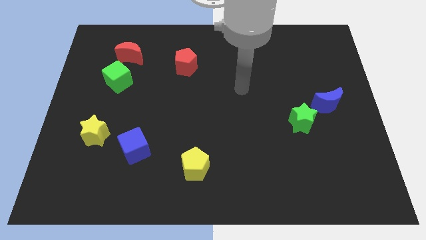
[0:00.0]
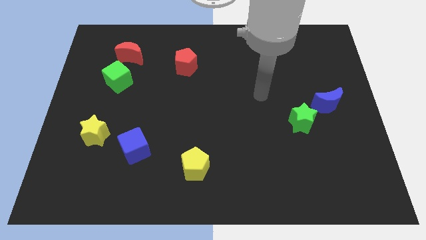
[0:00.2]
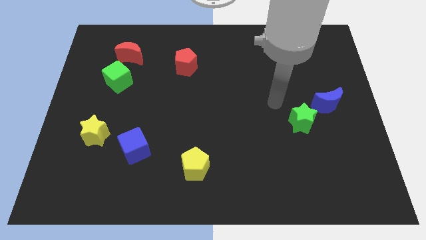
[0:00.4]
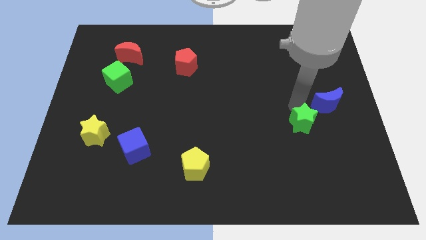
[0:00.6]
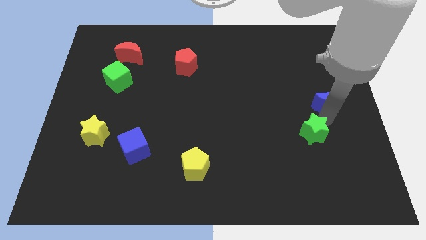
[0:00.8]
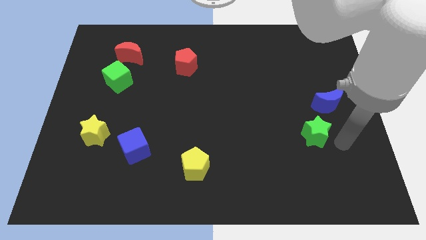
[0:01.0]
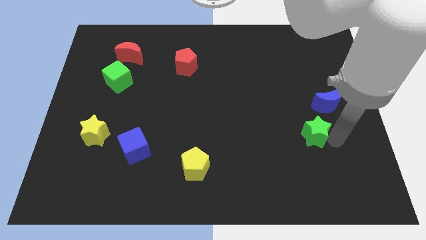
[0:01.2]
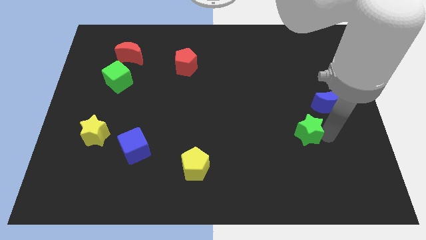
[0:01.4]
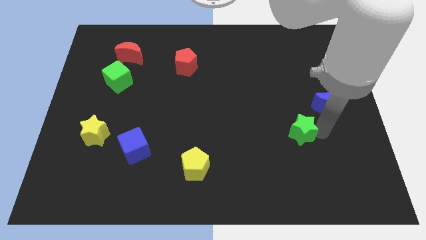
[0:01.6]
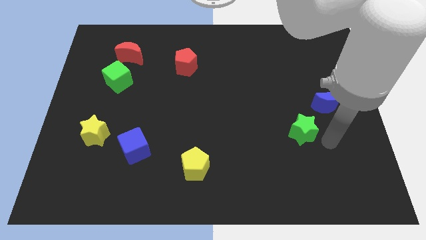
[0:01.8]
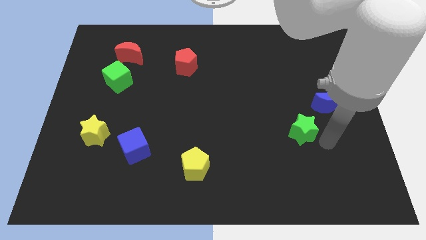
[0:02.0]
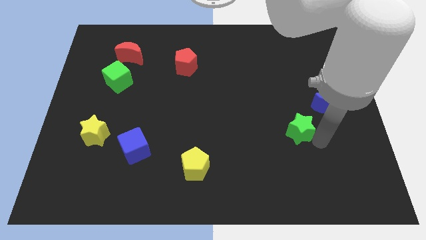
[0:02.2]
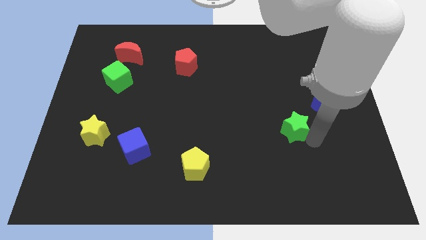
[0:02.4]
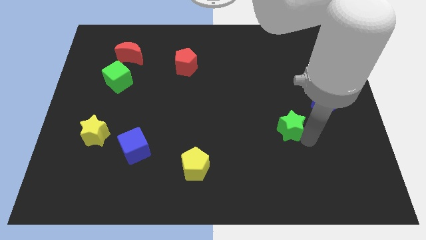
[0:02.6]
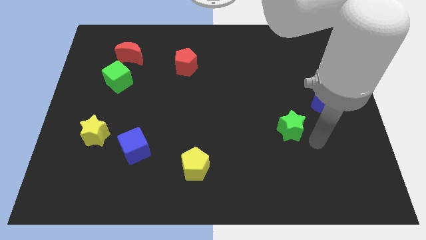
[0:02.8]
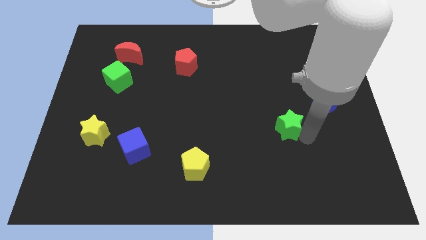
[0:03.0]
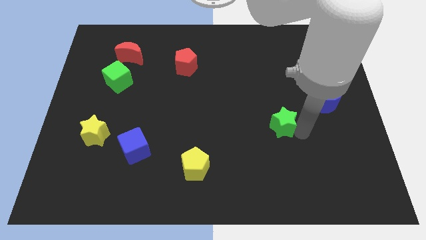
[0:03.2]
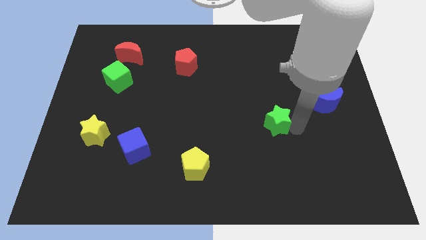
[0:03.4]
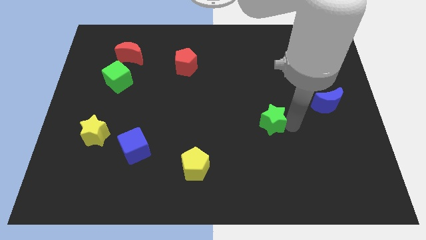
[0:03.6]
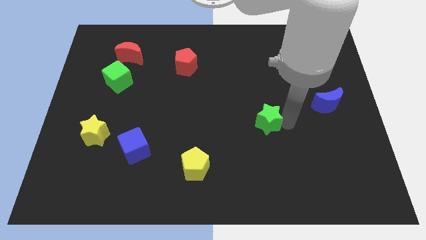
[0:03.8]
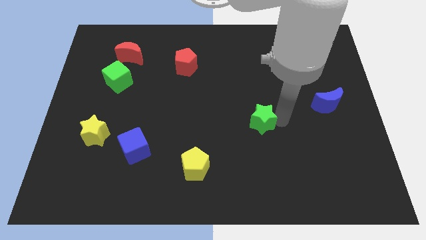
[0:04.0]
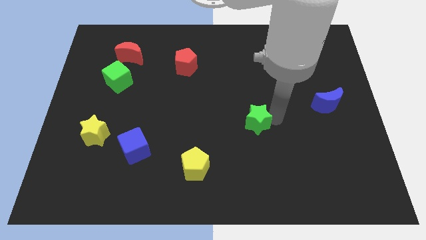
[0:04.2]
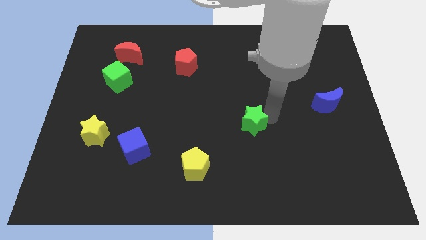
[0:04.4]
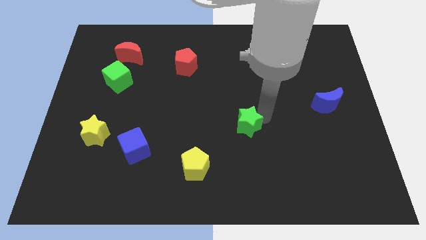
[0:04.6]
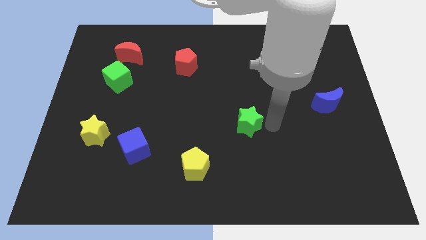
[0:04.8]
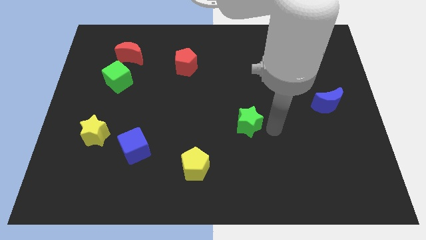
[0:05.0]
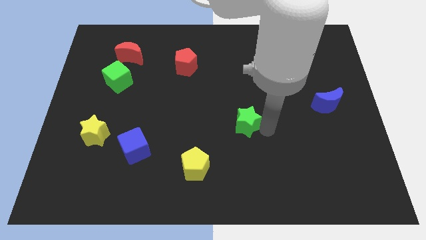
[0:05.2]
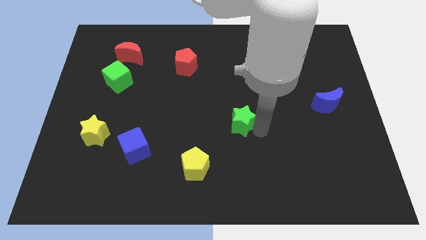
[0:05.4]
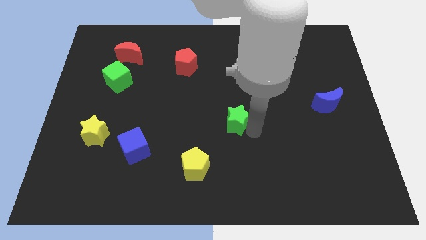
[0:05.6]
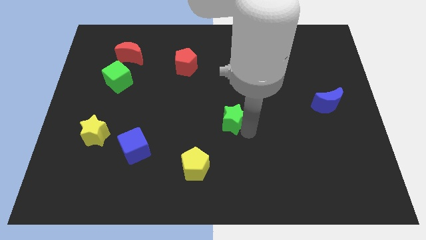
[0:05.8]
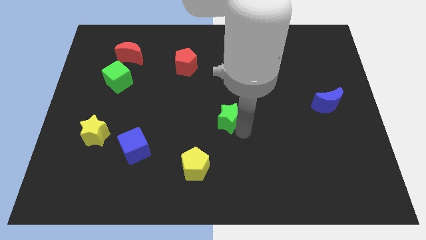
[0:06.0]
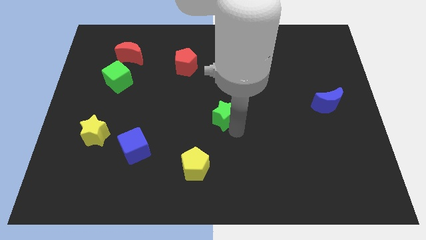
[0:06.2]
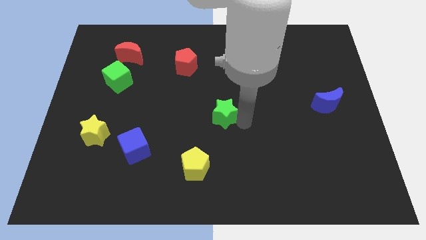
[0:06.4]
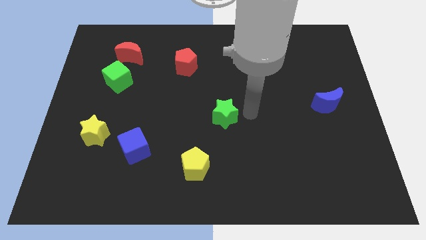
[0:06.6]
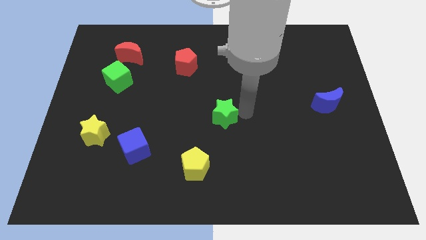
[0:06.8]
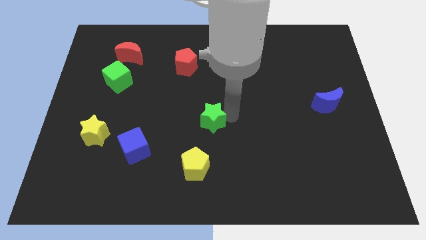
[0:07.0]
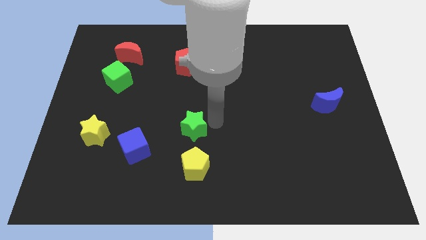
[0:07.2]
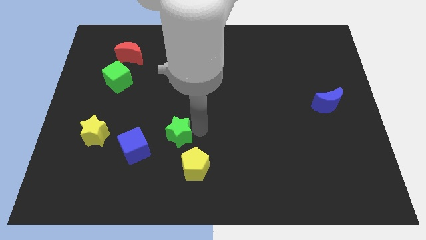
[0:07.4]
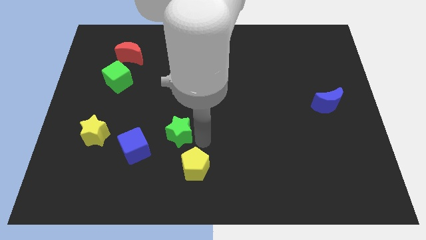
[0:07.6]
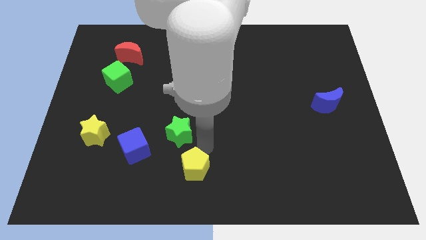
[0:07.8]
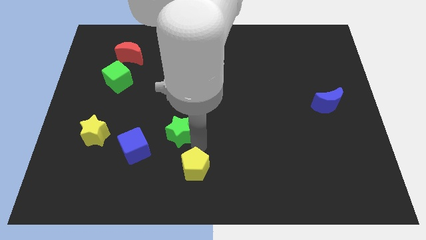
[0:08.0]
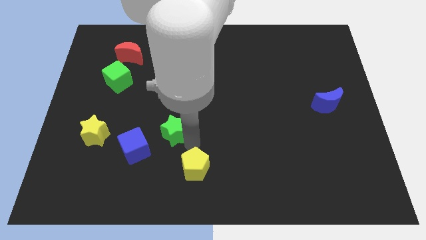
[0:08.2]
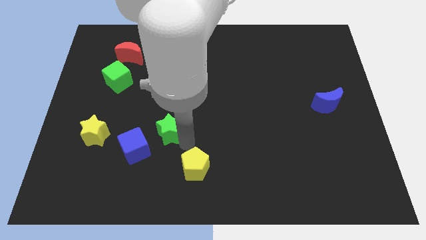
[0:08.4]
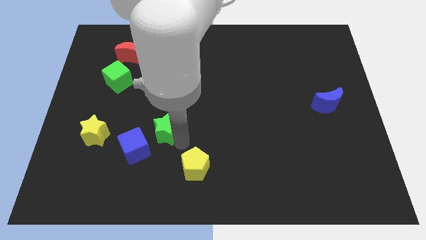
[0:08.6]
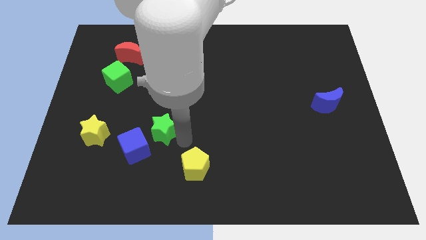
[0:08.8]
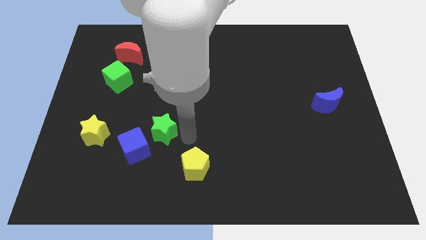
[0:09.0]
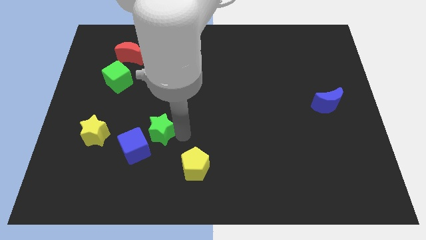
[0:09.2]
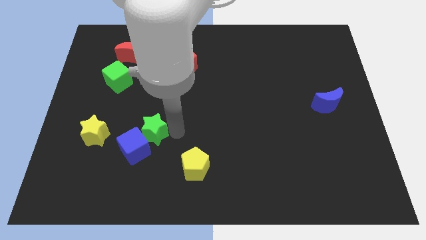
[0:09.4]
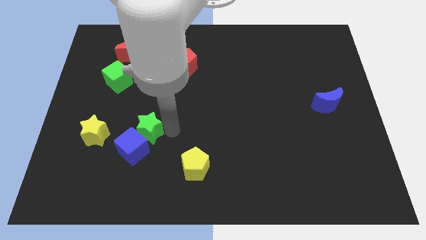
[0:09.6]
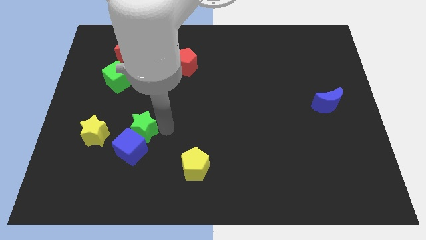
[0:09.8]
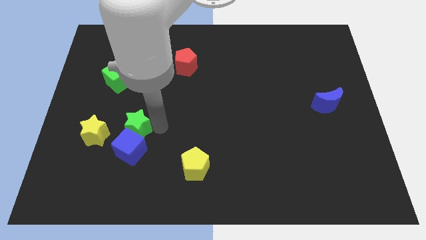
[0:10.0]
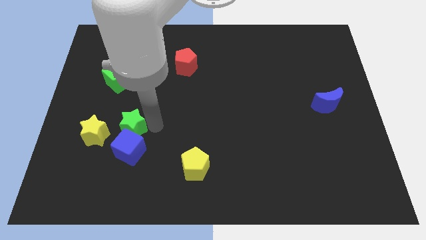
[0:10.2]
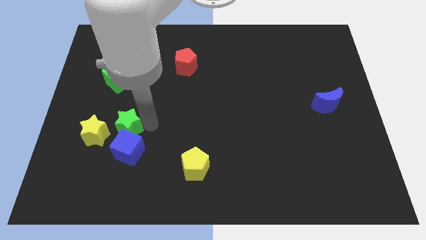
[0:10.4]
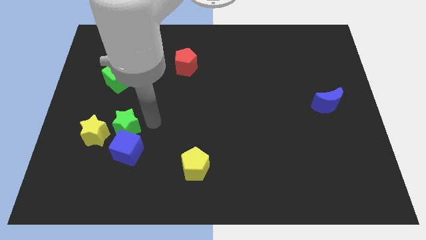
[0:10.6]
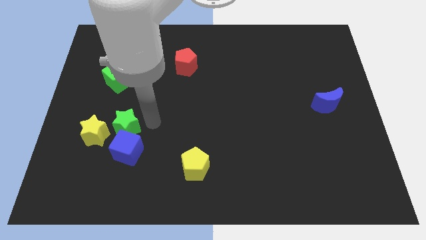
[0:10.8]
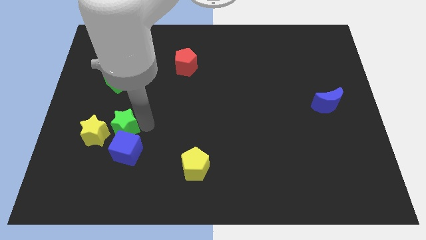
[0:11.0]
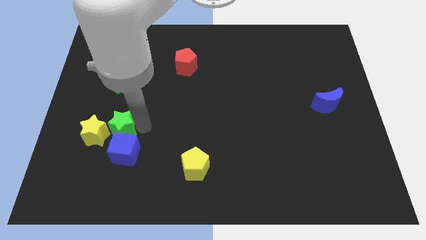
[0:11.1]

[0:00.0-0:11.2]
move the green star towards the yellow star
